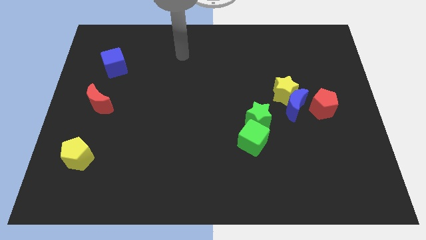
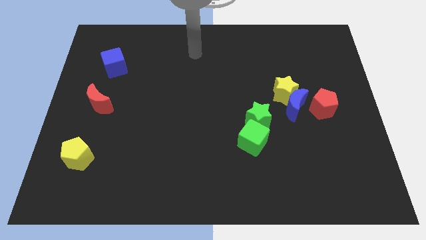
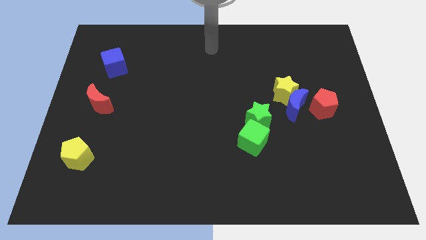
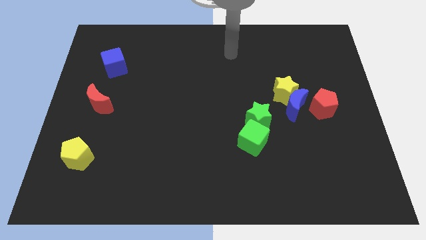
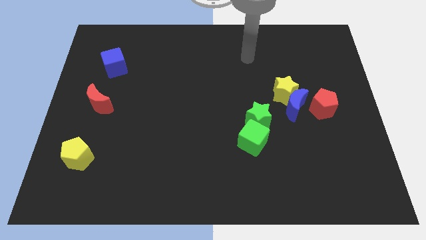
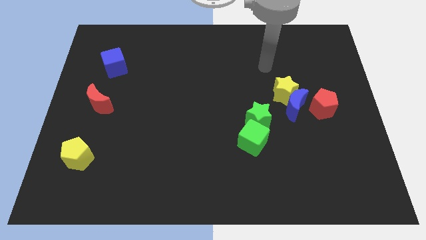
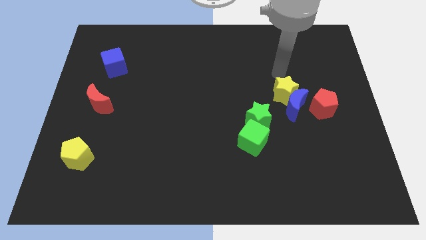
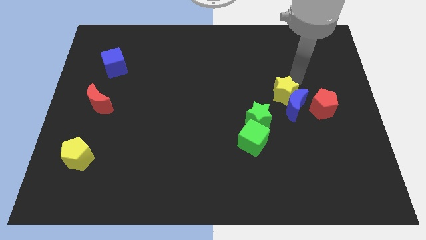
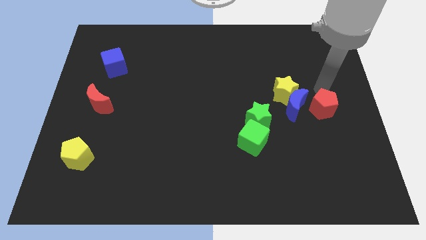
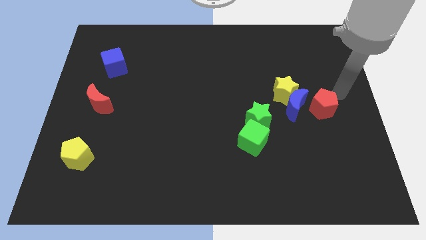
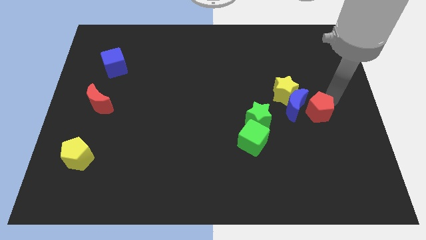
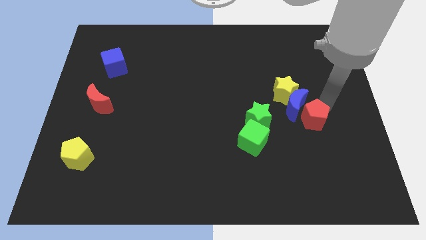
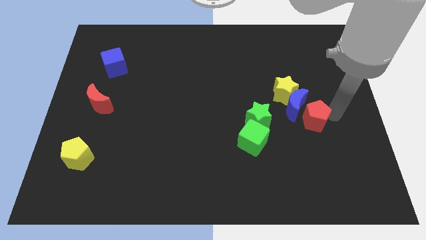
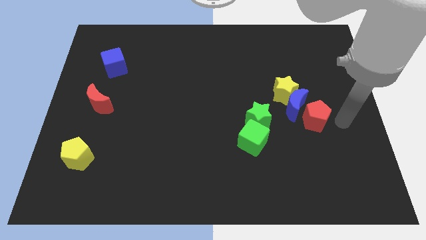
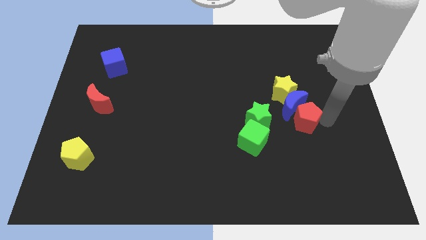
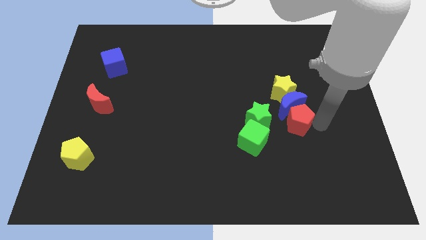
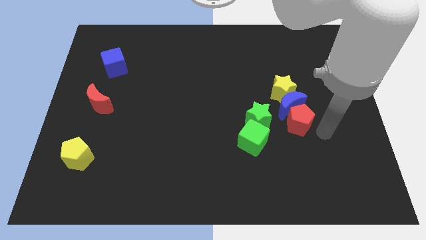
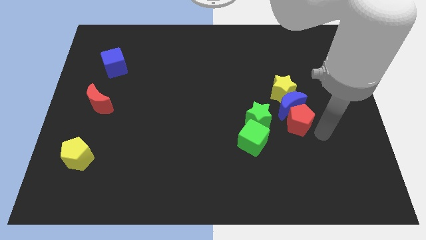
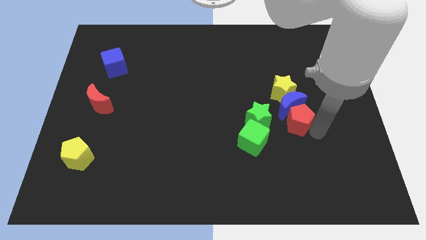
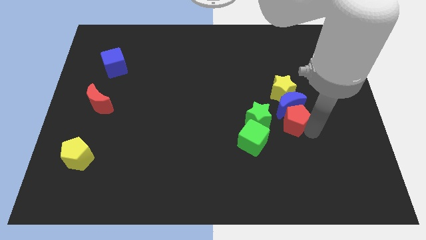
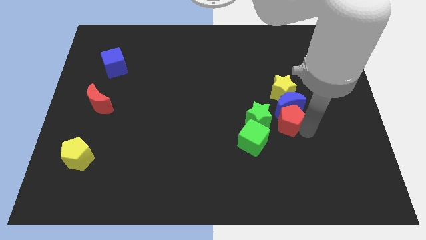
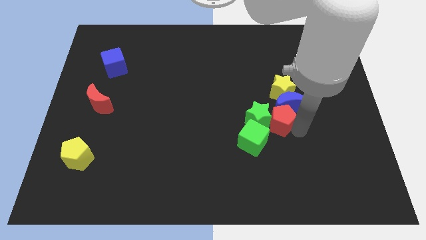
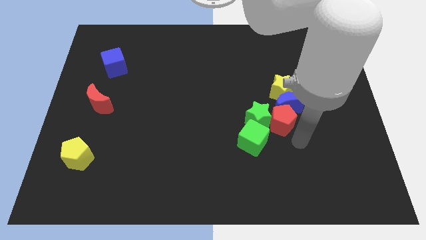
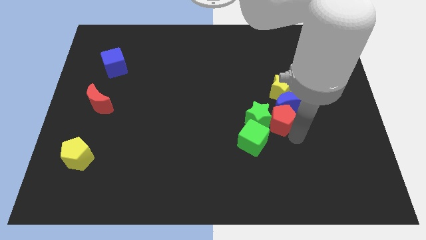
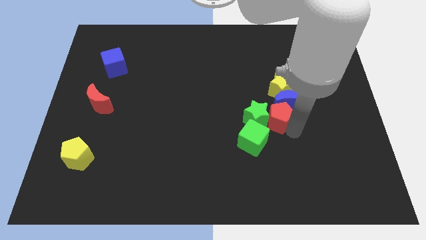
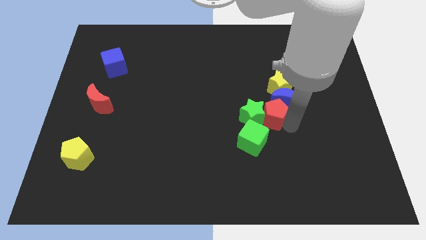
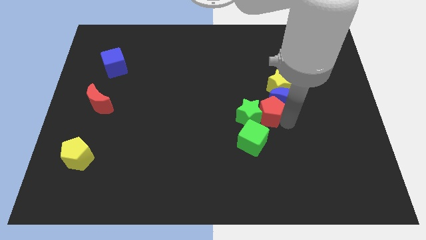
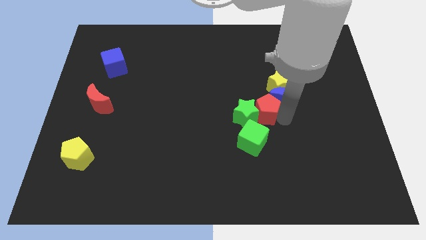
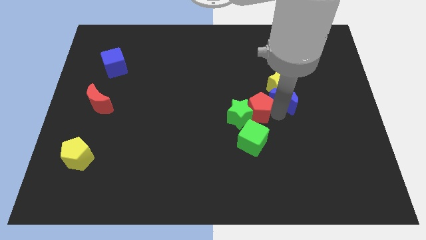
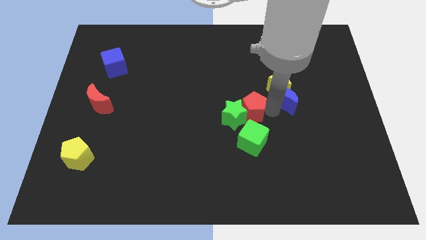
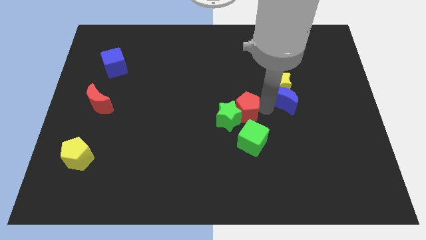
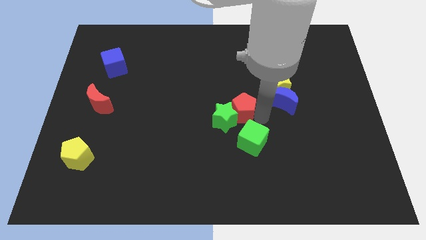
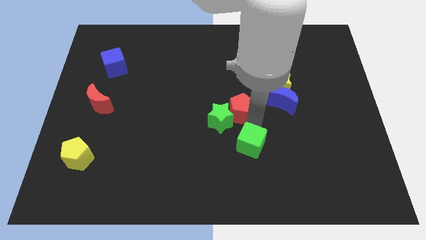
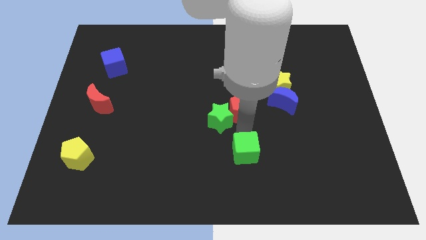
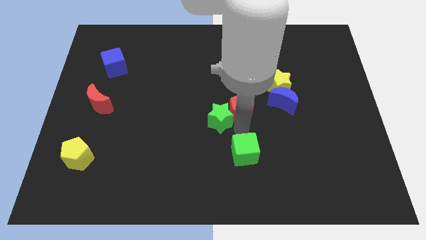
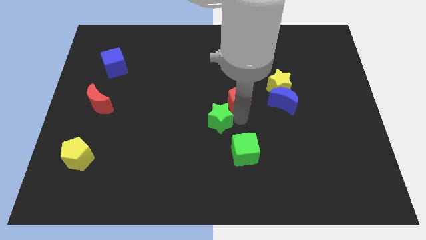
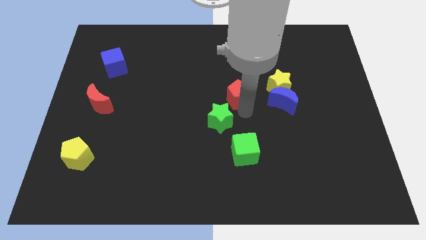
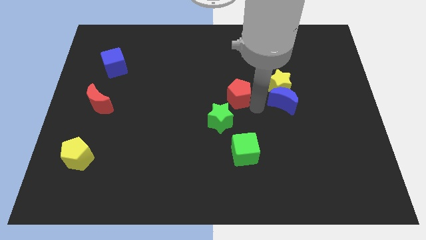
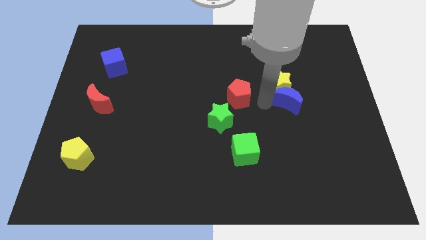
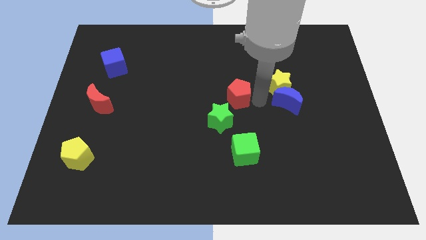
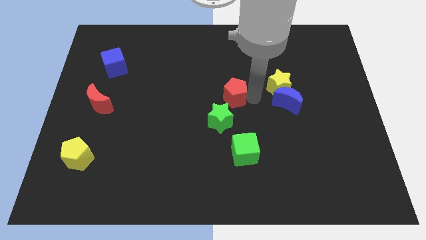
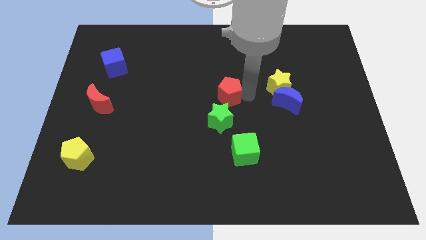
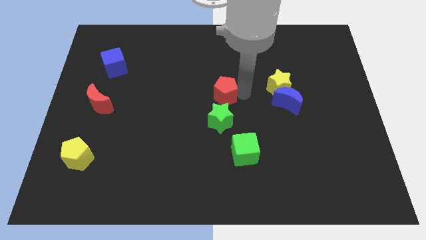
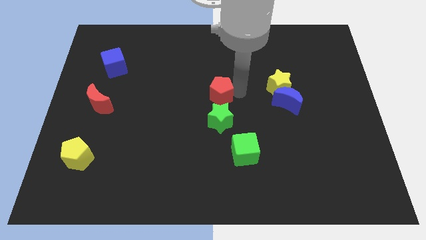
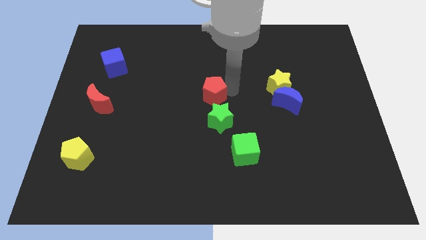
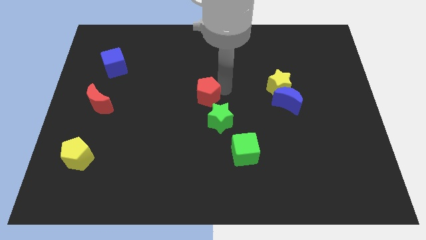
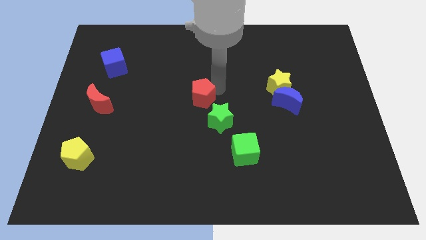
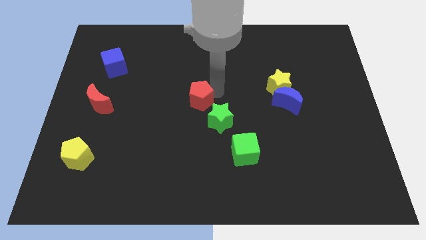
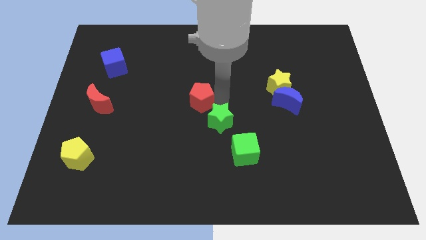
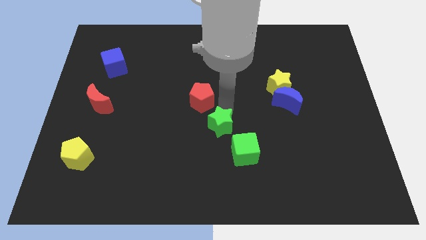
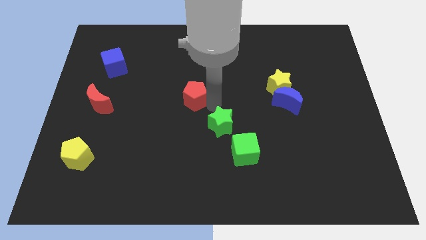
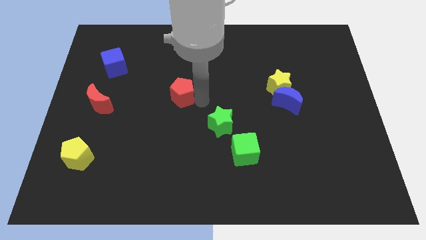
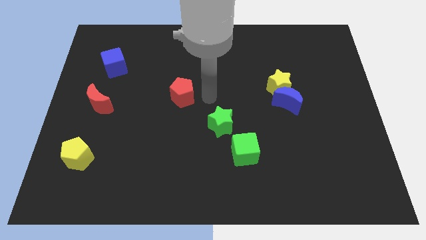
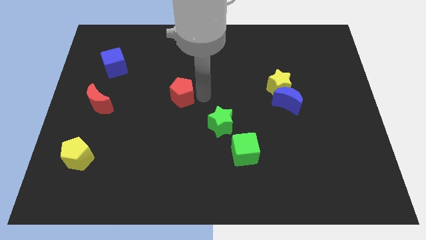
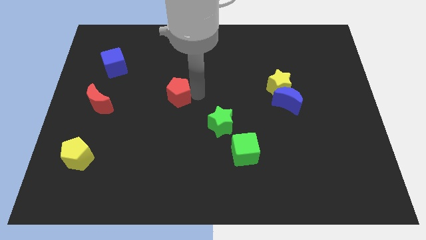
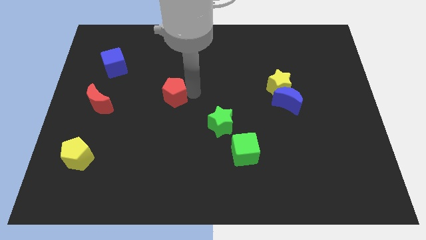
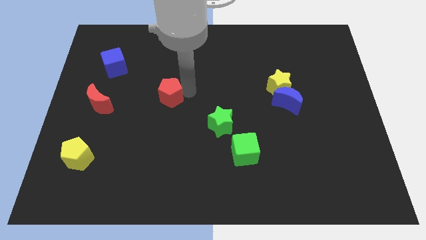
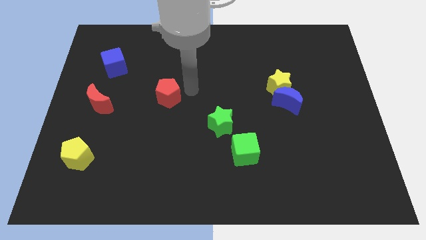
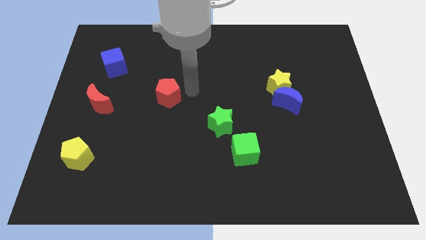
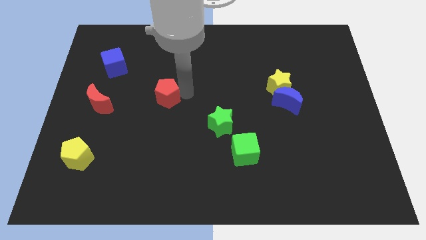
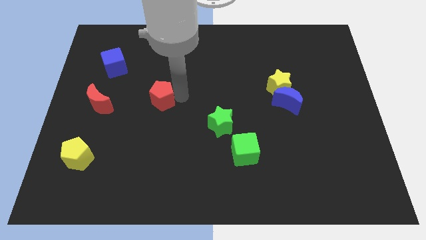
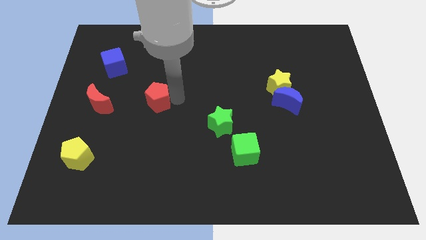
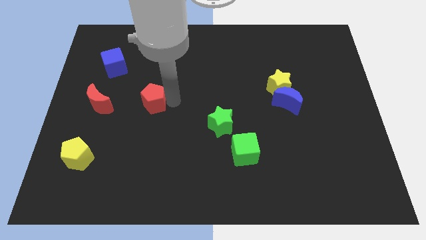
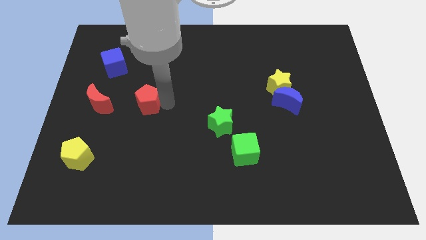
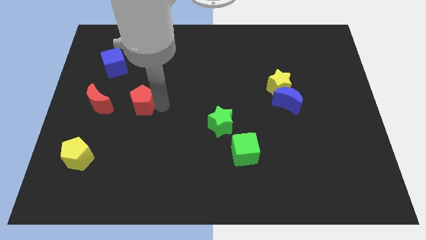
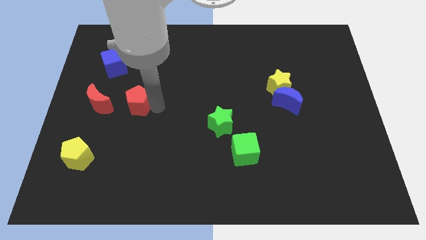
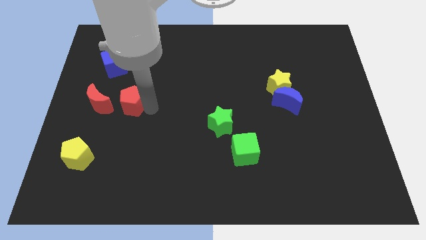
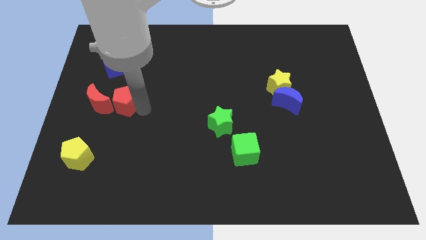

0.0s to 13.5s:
put the red pentagon close to the red moon
